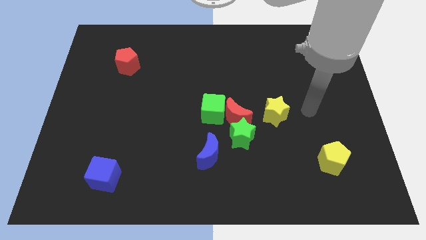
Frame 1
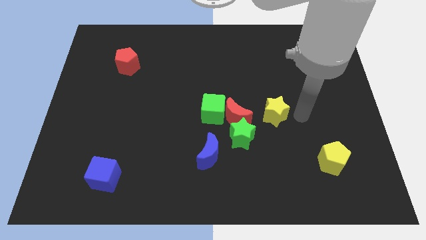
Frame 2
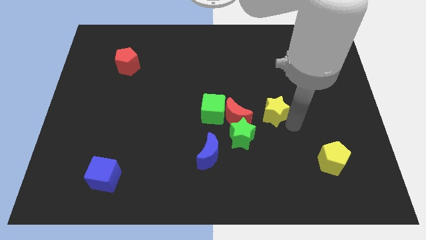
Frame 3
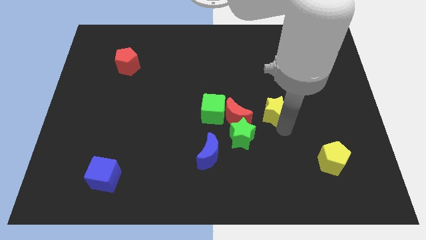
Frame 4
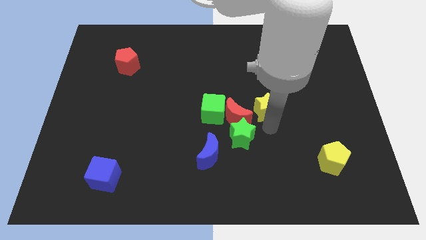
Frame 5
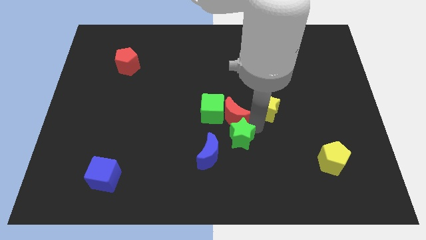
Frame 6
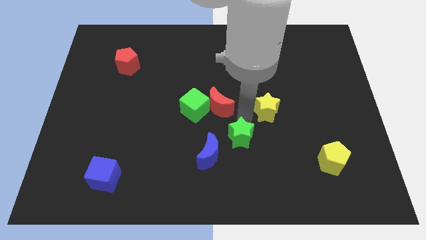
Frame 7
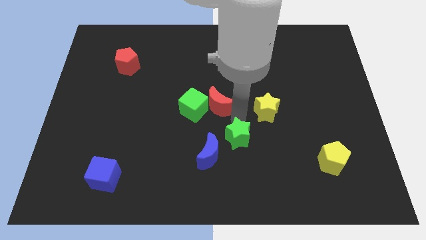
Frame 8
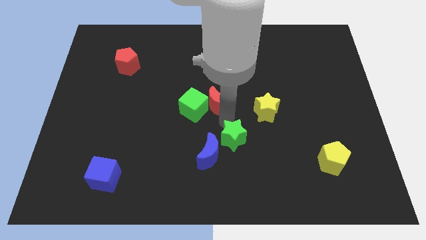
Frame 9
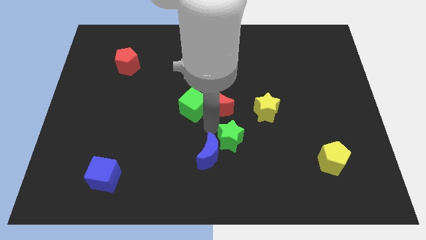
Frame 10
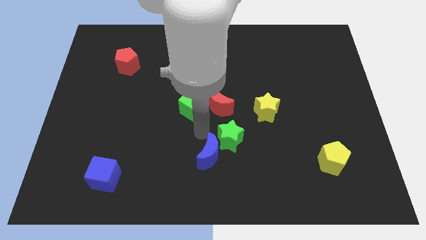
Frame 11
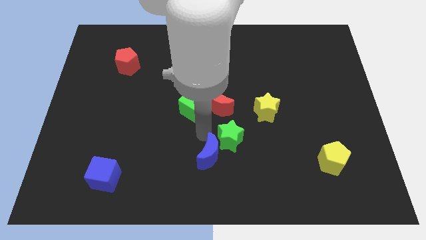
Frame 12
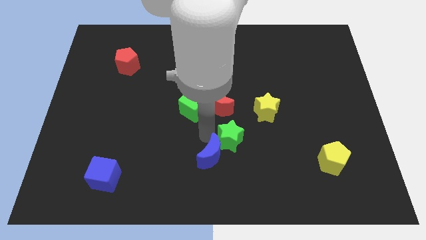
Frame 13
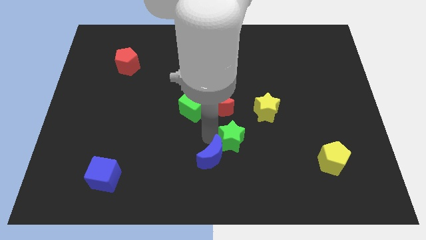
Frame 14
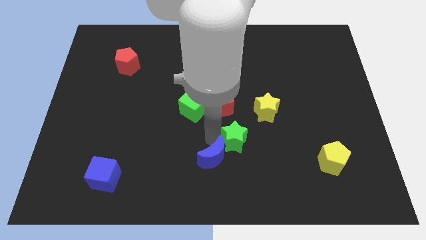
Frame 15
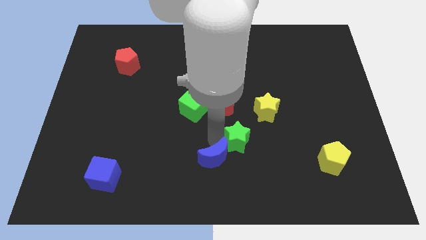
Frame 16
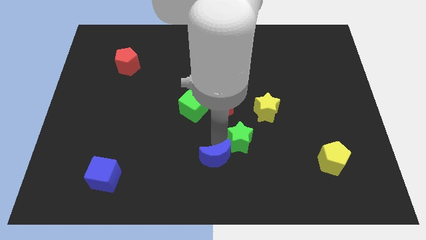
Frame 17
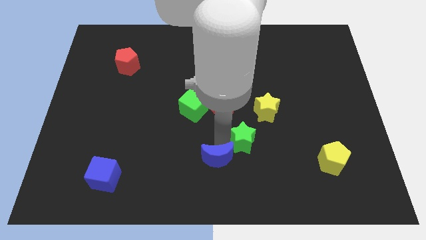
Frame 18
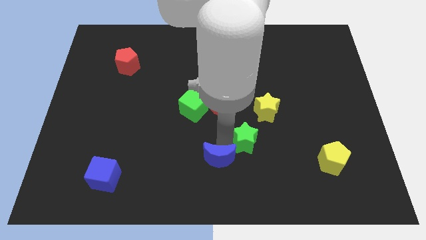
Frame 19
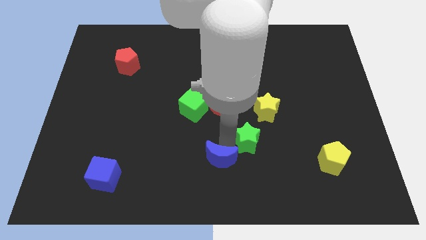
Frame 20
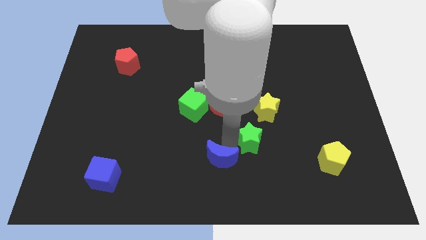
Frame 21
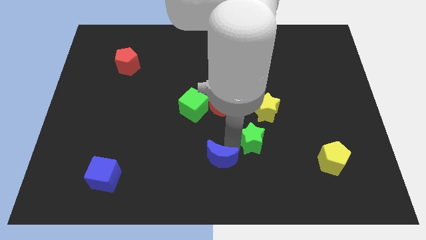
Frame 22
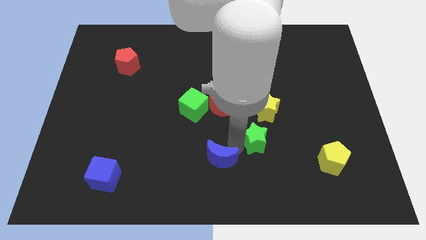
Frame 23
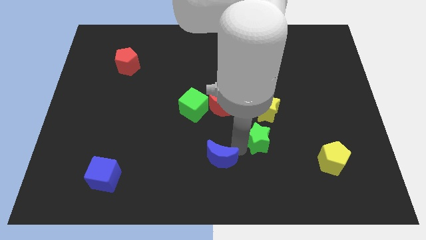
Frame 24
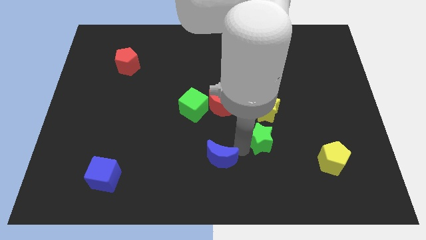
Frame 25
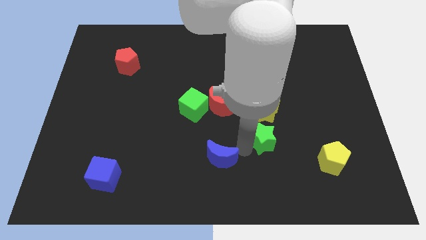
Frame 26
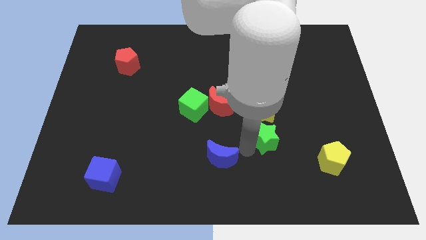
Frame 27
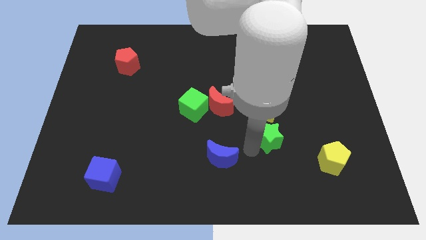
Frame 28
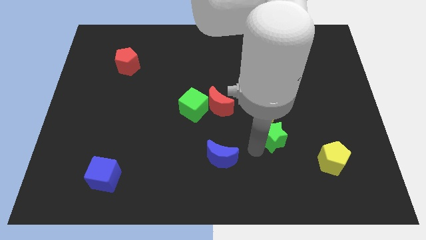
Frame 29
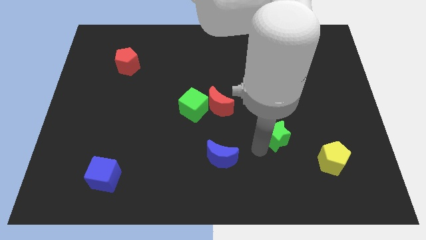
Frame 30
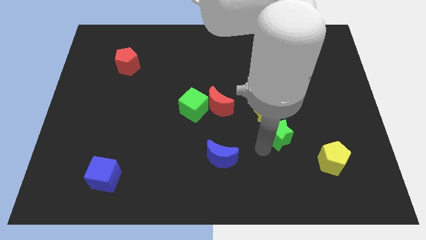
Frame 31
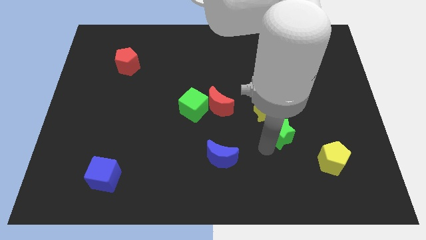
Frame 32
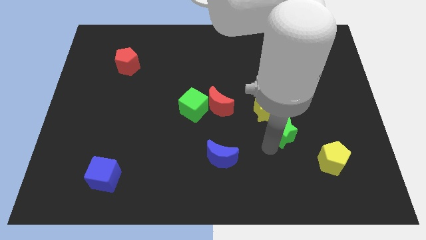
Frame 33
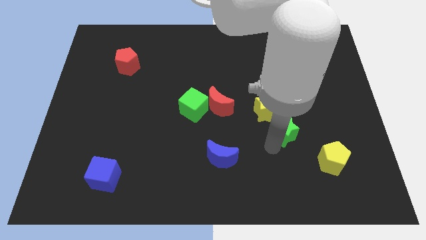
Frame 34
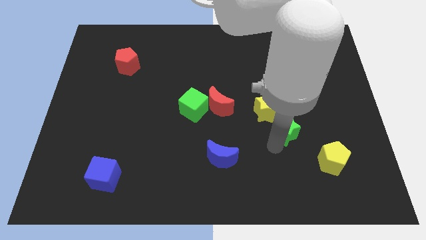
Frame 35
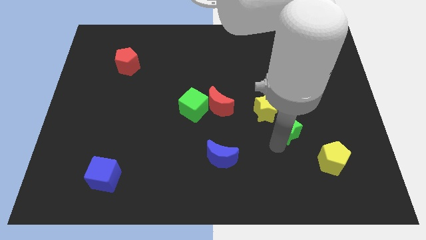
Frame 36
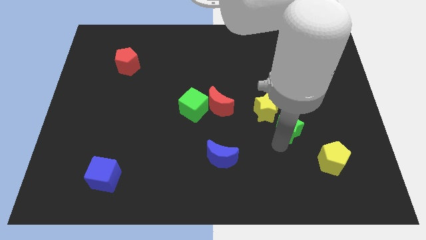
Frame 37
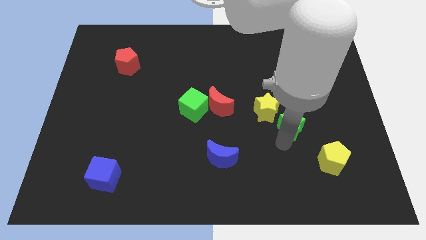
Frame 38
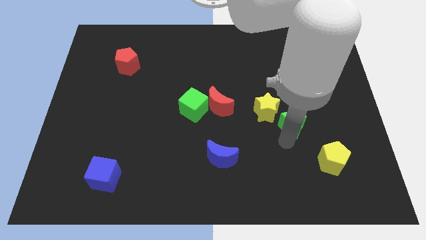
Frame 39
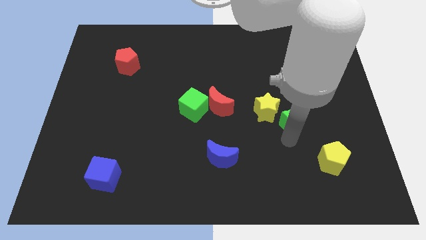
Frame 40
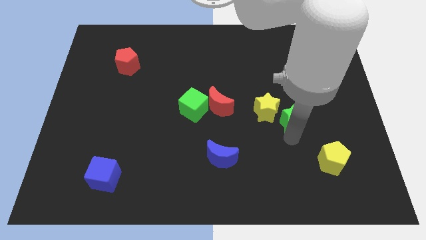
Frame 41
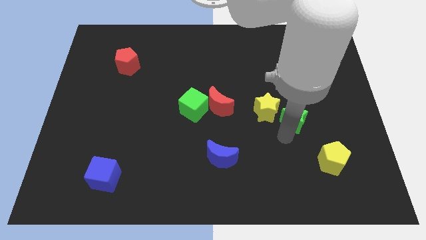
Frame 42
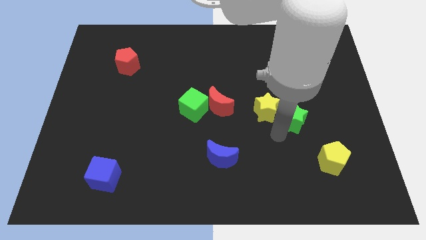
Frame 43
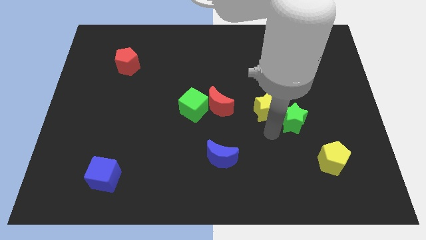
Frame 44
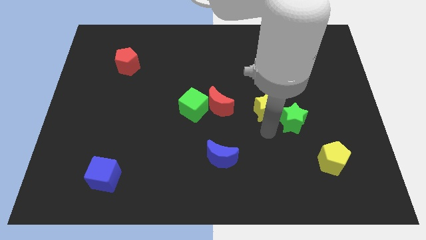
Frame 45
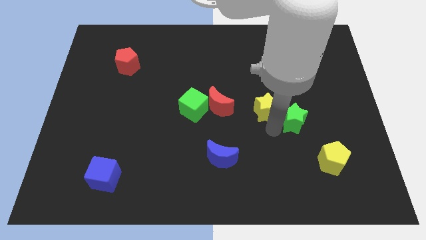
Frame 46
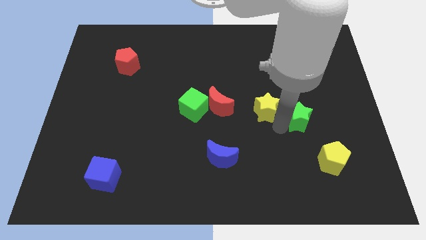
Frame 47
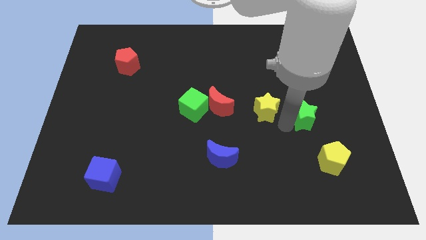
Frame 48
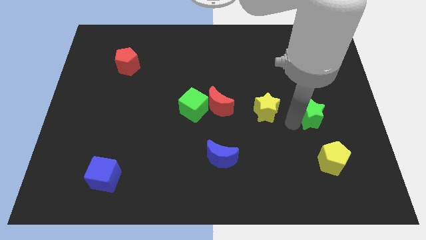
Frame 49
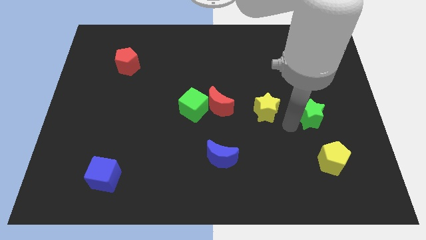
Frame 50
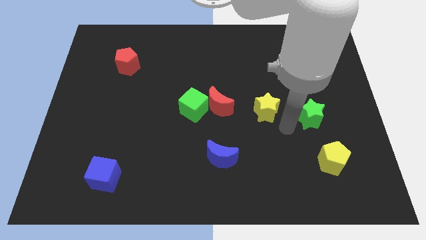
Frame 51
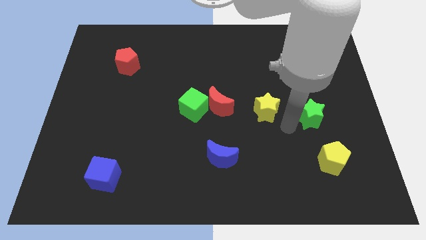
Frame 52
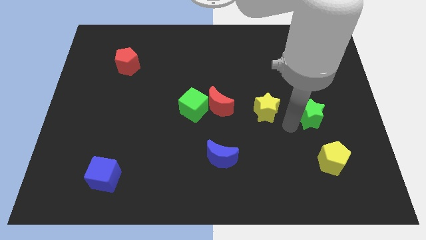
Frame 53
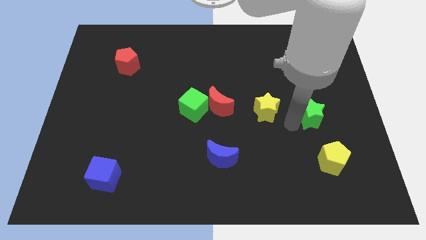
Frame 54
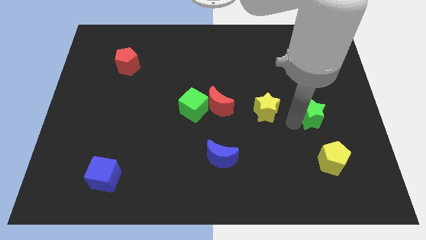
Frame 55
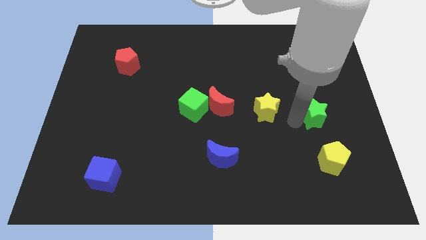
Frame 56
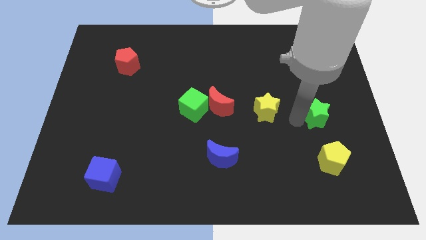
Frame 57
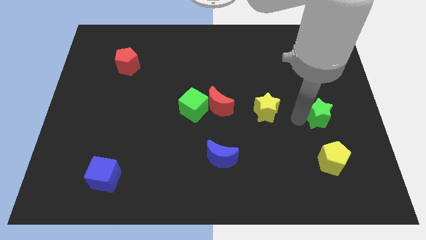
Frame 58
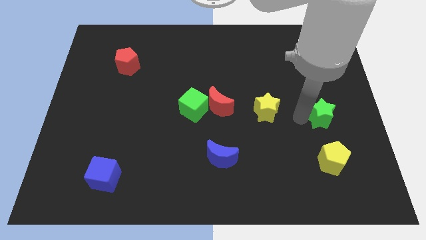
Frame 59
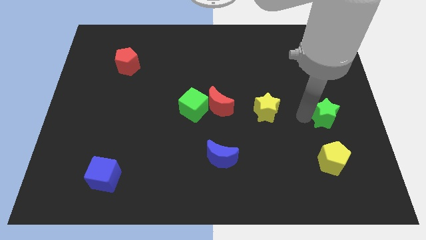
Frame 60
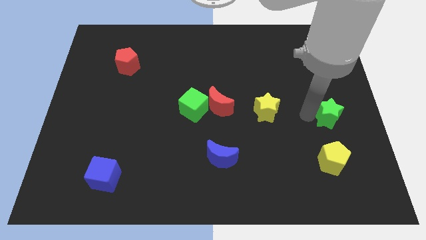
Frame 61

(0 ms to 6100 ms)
move the green star to the right side
